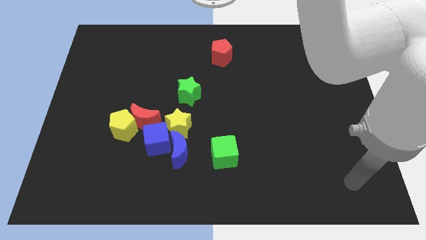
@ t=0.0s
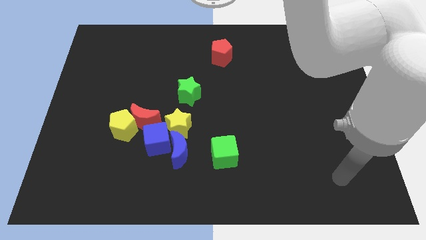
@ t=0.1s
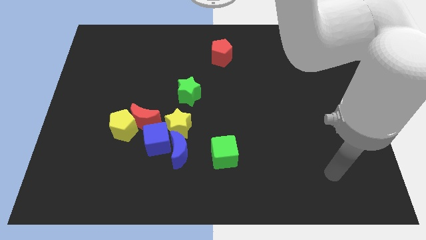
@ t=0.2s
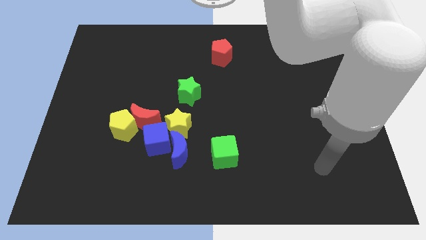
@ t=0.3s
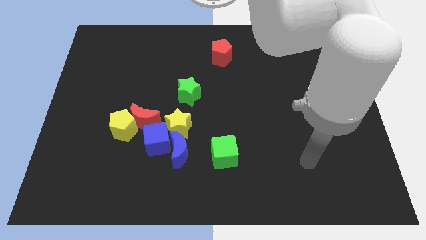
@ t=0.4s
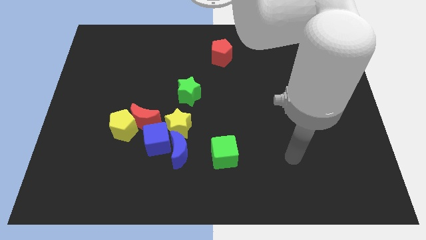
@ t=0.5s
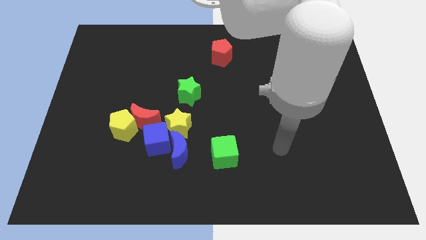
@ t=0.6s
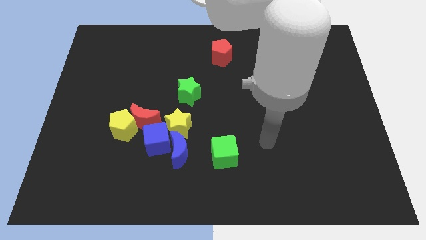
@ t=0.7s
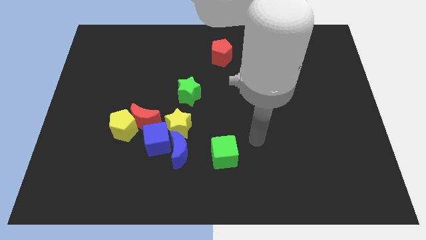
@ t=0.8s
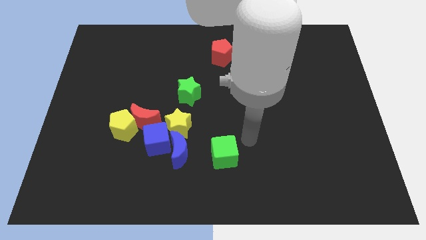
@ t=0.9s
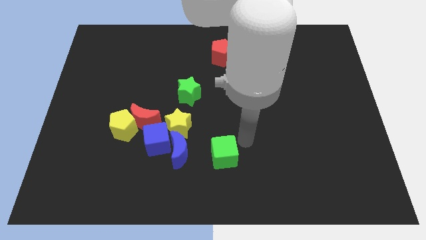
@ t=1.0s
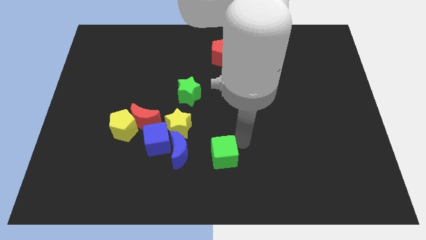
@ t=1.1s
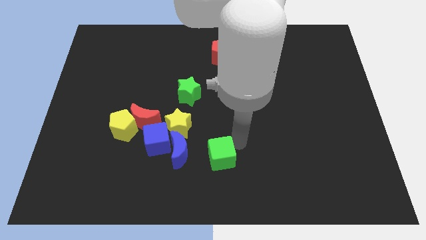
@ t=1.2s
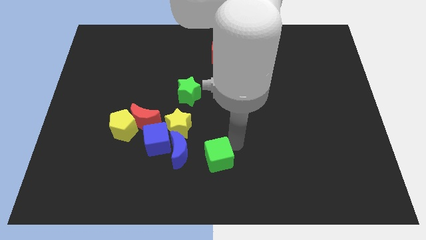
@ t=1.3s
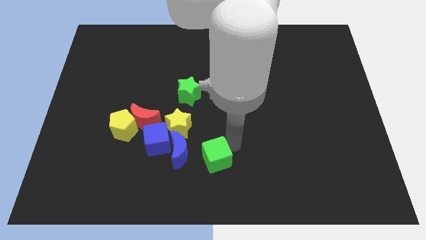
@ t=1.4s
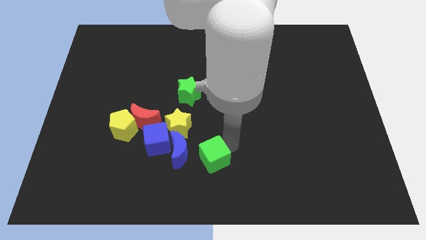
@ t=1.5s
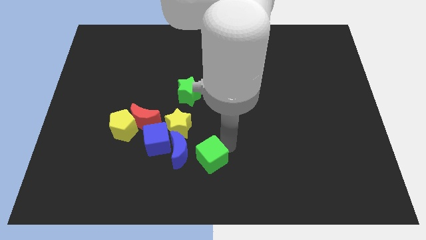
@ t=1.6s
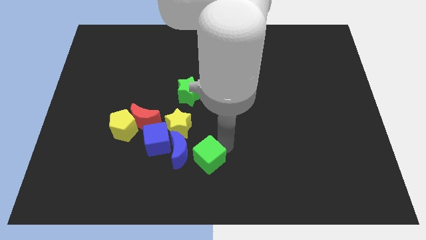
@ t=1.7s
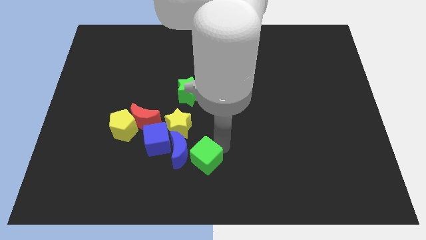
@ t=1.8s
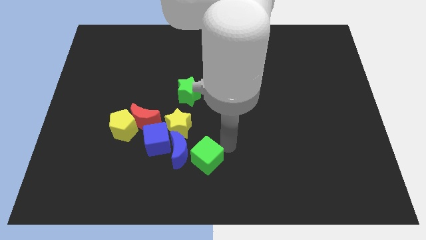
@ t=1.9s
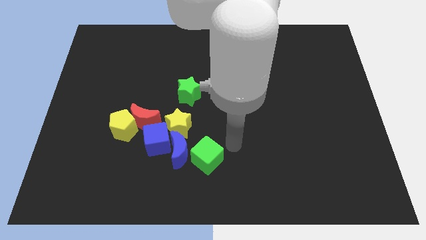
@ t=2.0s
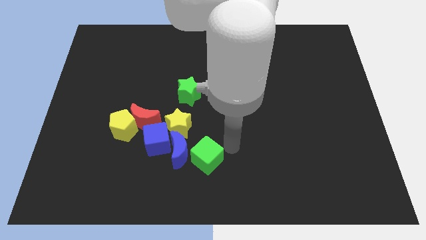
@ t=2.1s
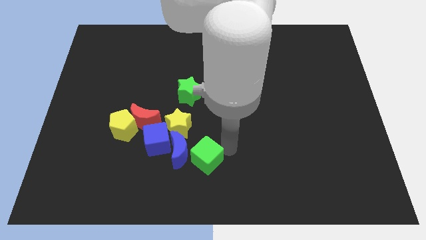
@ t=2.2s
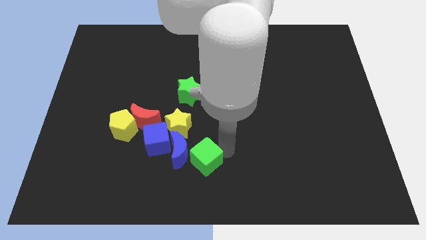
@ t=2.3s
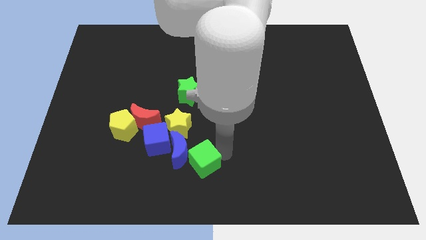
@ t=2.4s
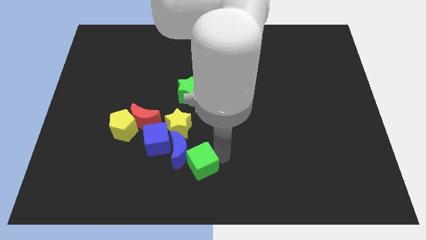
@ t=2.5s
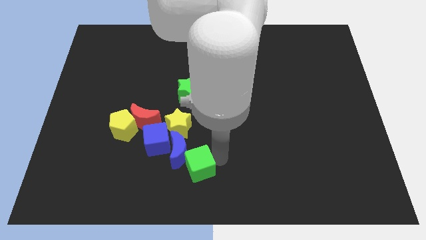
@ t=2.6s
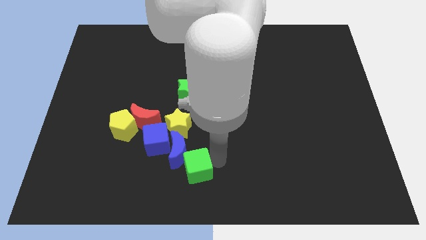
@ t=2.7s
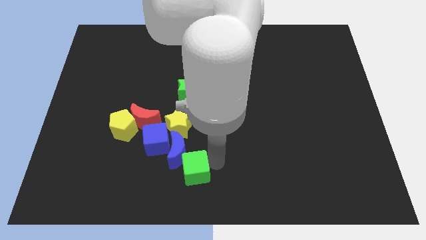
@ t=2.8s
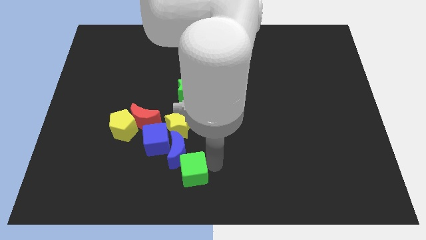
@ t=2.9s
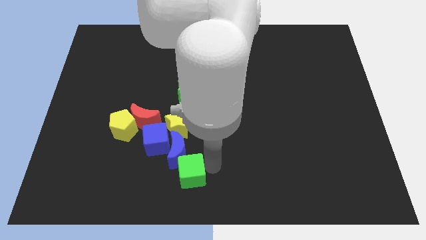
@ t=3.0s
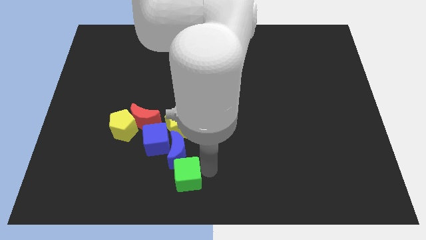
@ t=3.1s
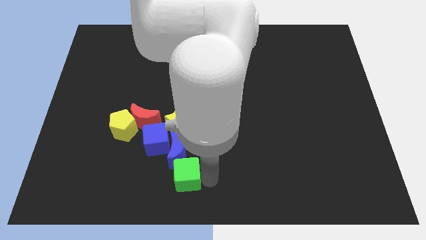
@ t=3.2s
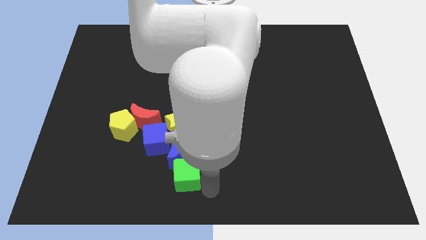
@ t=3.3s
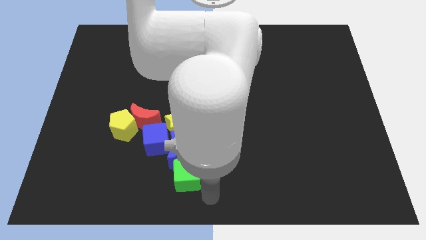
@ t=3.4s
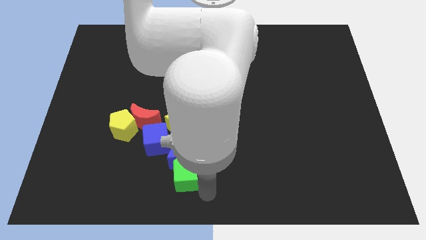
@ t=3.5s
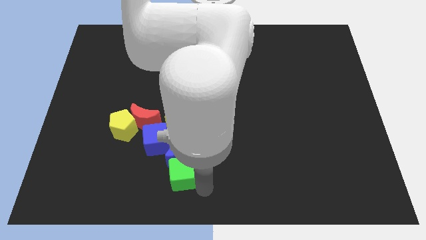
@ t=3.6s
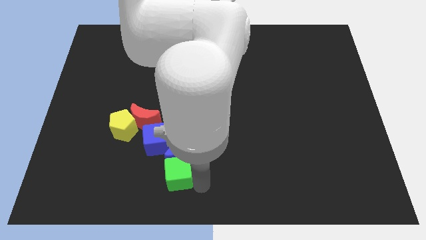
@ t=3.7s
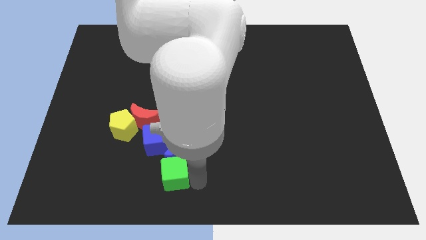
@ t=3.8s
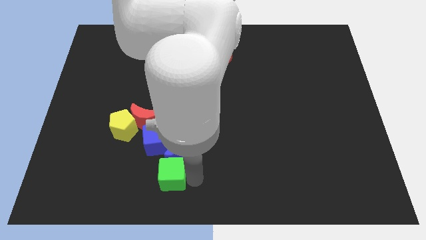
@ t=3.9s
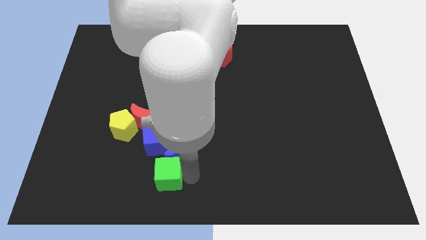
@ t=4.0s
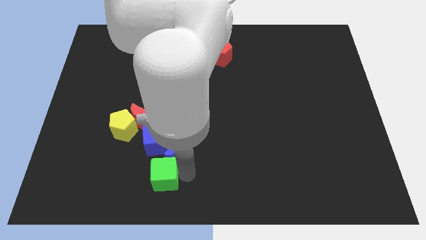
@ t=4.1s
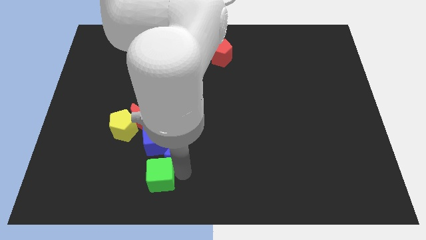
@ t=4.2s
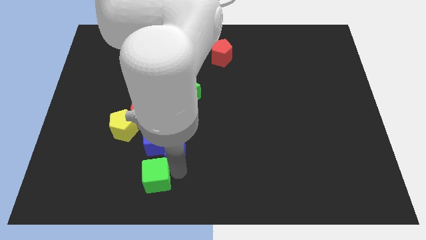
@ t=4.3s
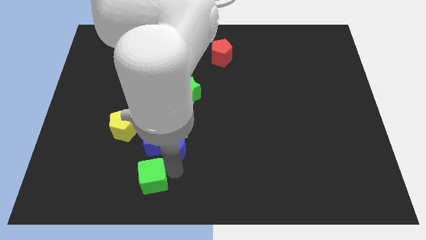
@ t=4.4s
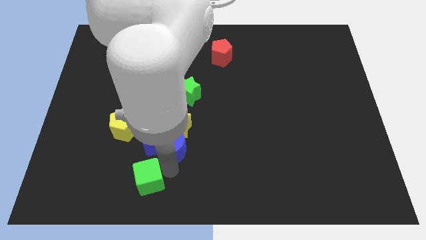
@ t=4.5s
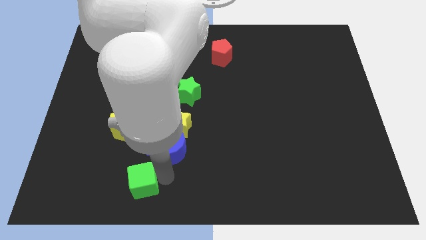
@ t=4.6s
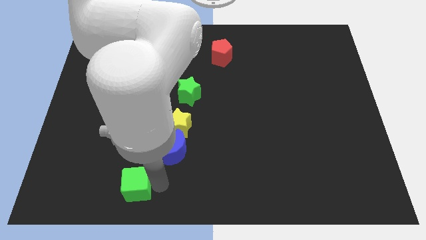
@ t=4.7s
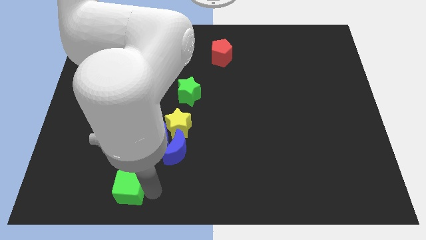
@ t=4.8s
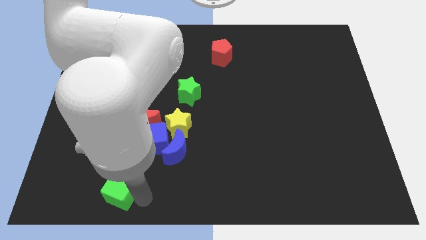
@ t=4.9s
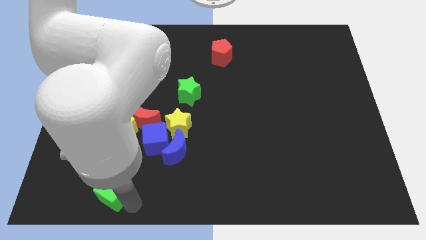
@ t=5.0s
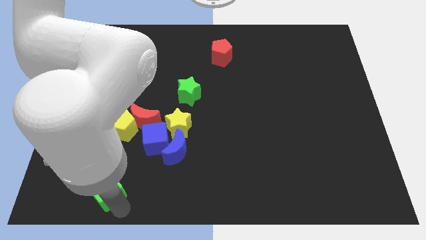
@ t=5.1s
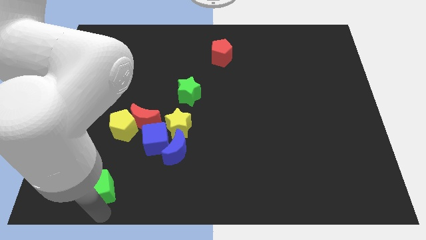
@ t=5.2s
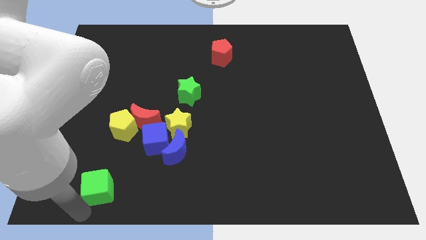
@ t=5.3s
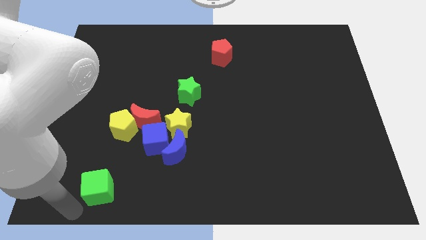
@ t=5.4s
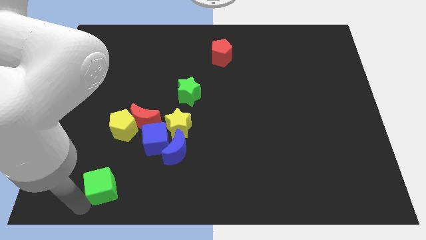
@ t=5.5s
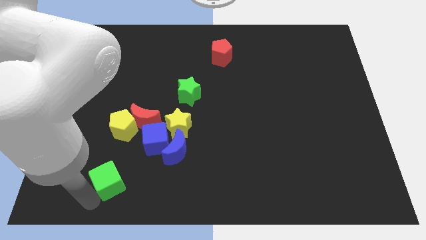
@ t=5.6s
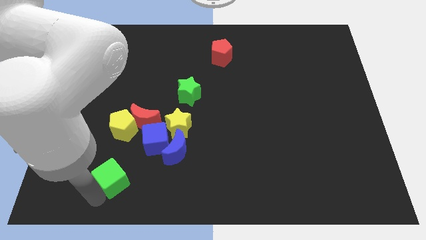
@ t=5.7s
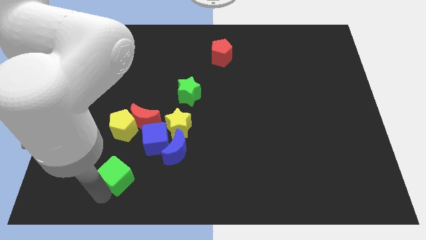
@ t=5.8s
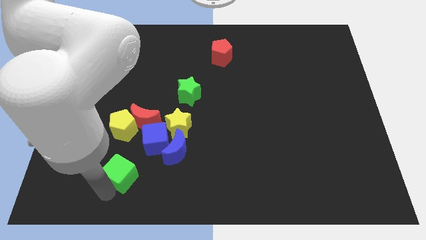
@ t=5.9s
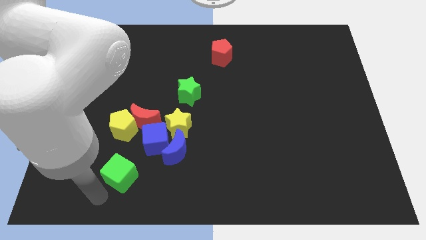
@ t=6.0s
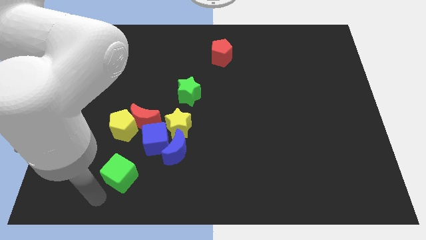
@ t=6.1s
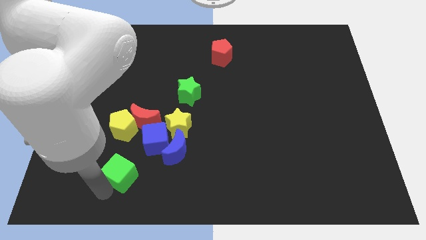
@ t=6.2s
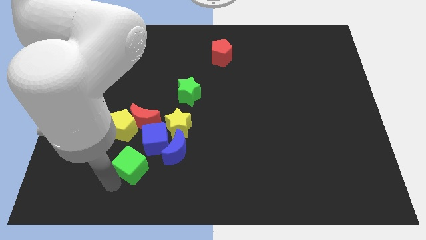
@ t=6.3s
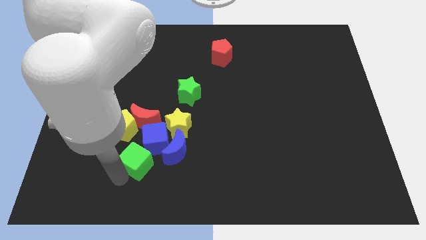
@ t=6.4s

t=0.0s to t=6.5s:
slide the green cube to the bottom left side of the yellow star
